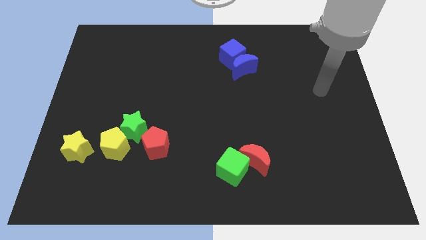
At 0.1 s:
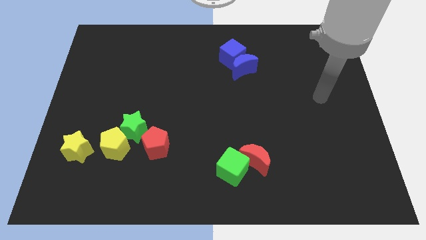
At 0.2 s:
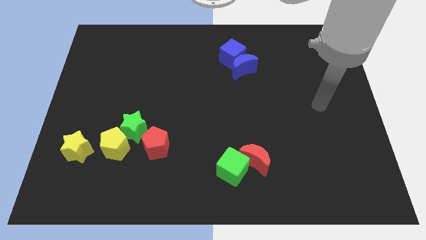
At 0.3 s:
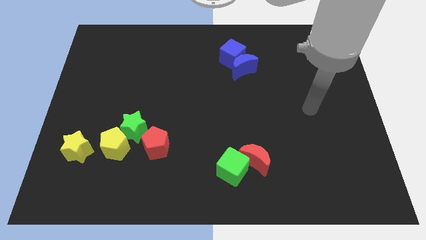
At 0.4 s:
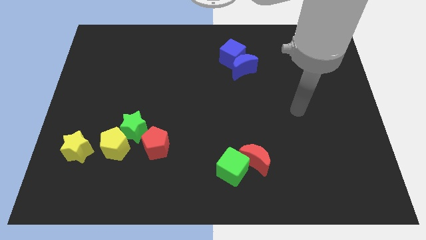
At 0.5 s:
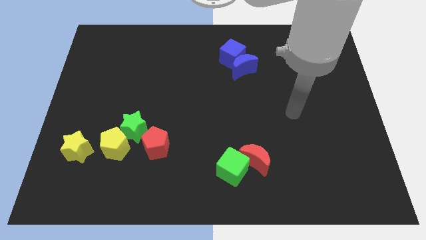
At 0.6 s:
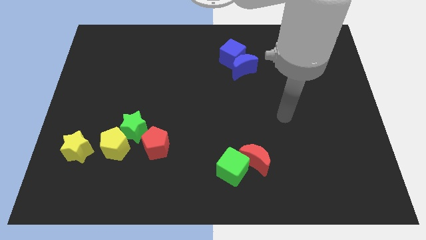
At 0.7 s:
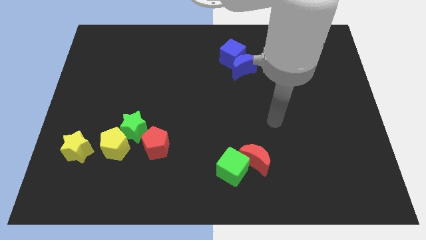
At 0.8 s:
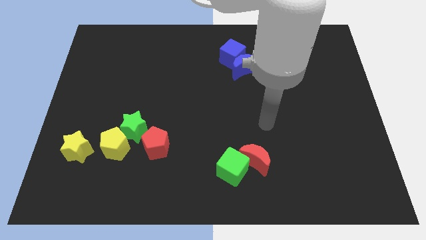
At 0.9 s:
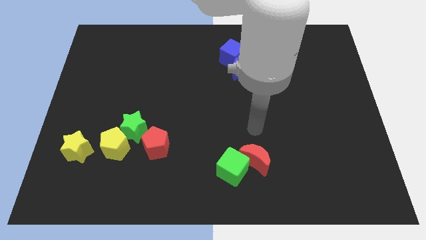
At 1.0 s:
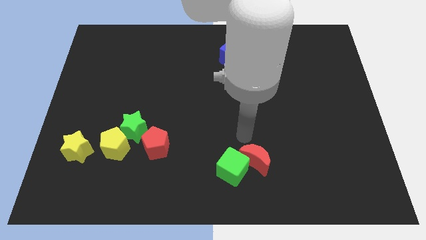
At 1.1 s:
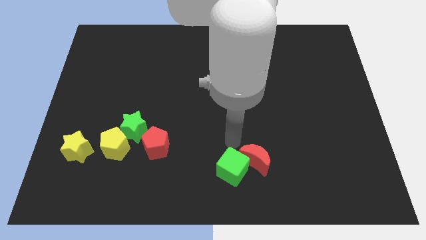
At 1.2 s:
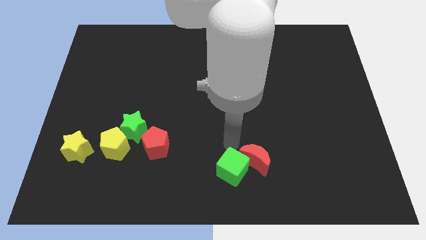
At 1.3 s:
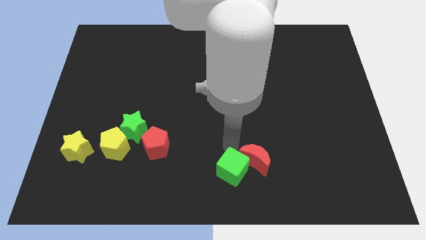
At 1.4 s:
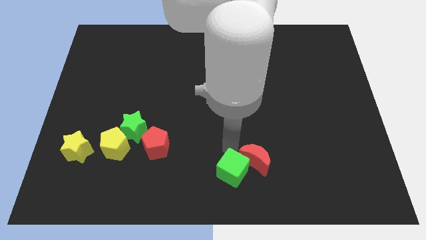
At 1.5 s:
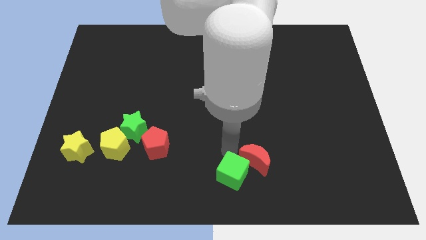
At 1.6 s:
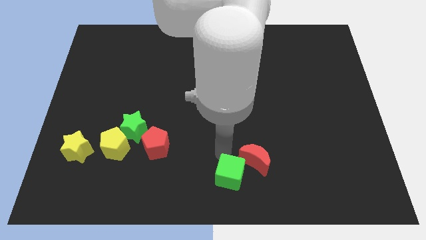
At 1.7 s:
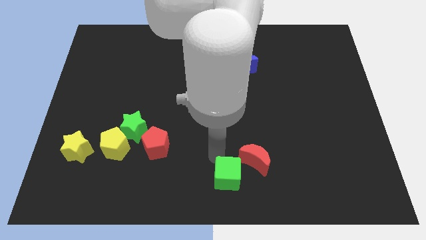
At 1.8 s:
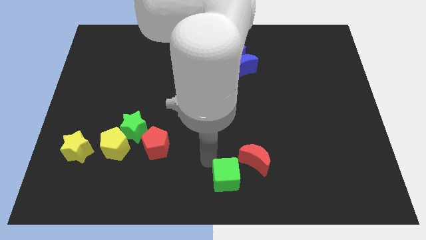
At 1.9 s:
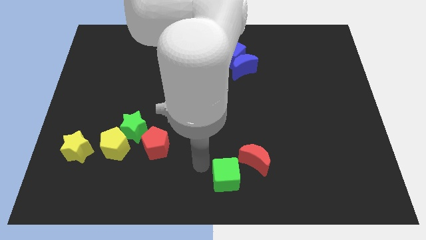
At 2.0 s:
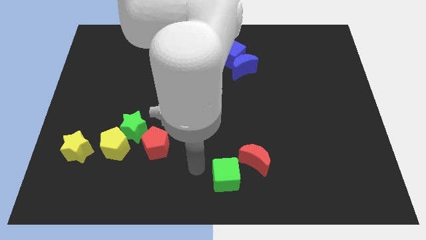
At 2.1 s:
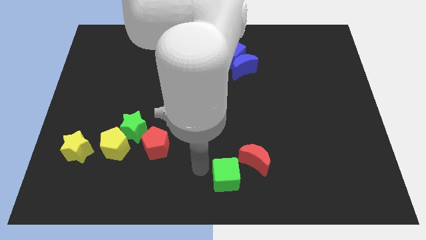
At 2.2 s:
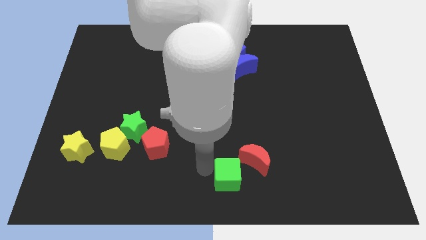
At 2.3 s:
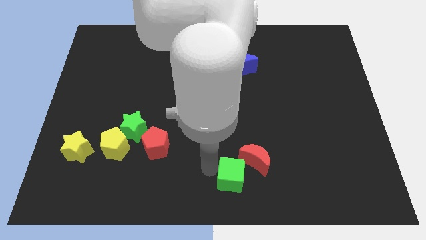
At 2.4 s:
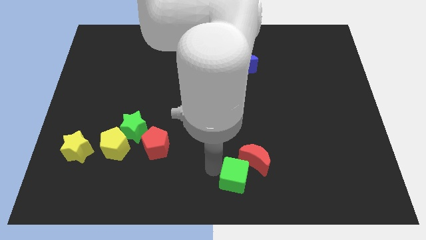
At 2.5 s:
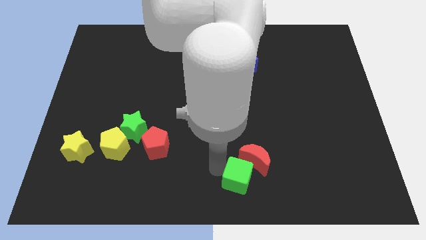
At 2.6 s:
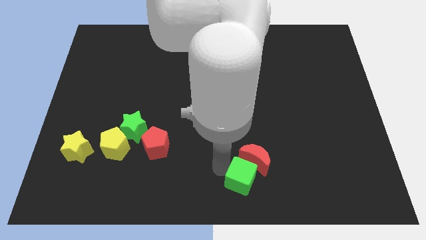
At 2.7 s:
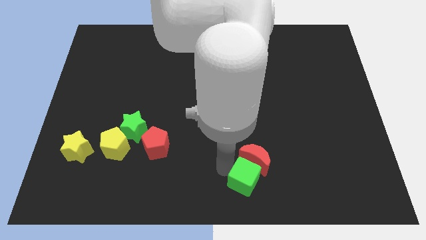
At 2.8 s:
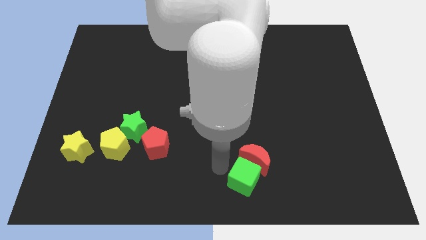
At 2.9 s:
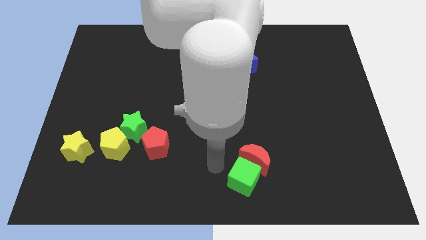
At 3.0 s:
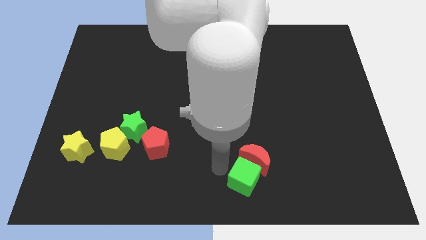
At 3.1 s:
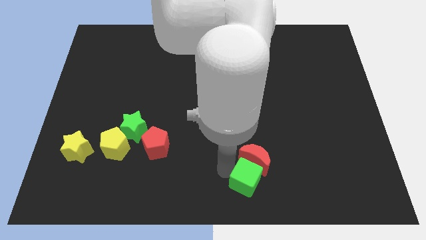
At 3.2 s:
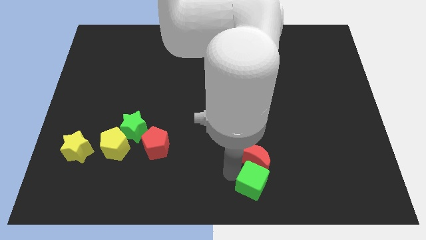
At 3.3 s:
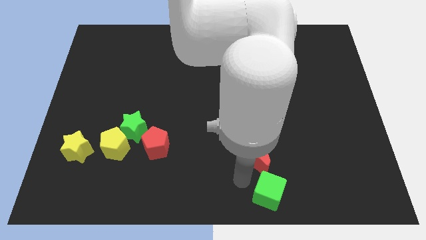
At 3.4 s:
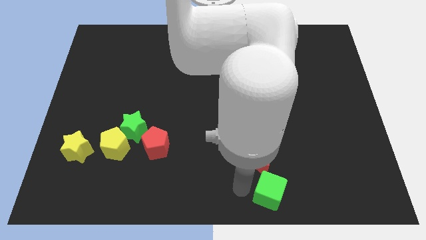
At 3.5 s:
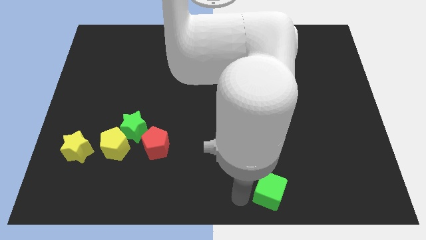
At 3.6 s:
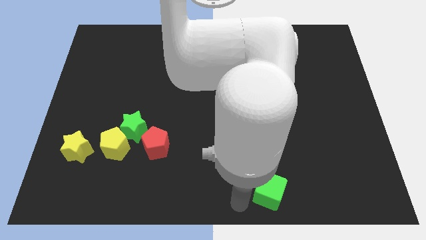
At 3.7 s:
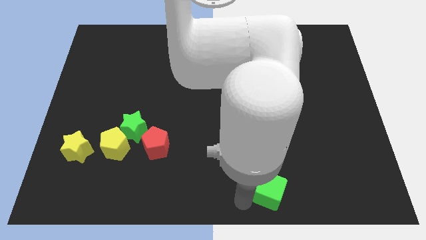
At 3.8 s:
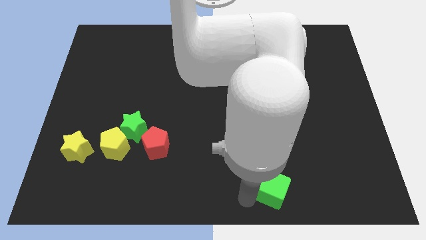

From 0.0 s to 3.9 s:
slightly move the green cube to the right

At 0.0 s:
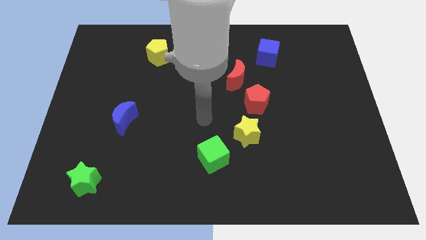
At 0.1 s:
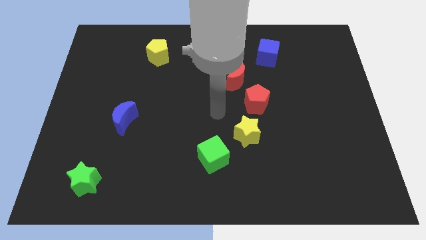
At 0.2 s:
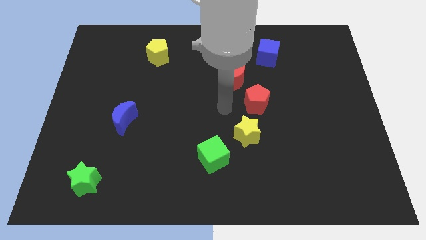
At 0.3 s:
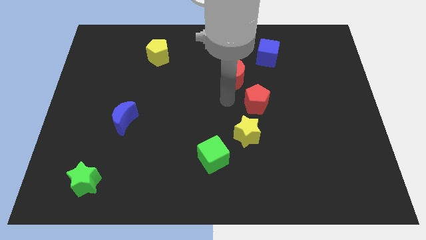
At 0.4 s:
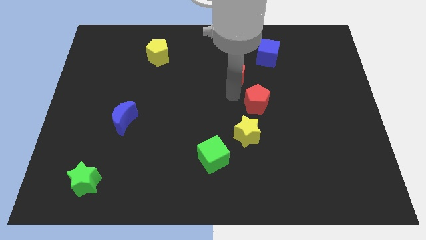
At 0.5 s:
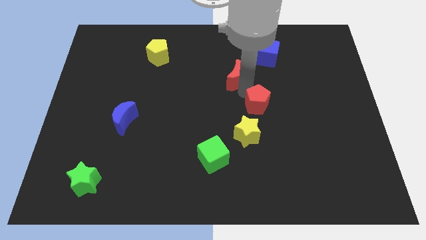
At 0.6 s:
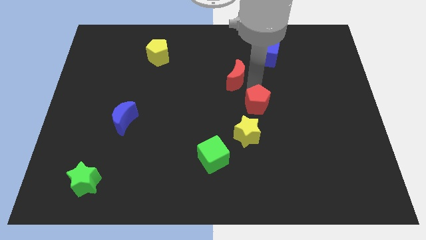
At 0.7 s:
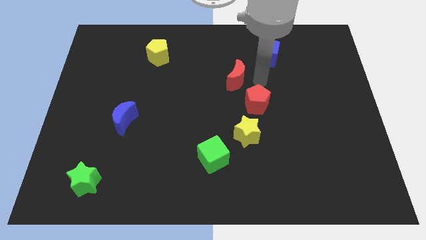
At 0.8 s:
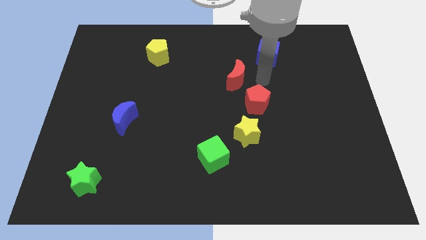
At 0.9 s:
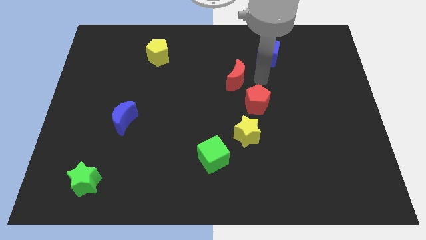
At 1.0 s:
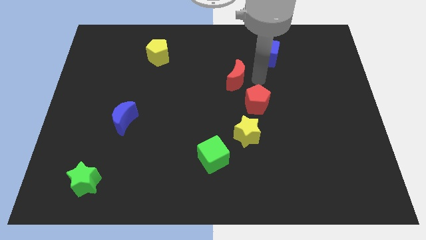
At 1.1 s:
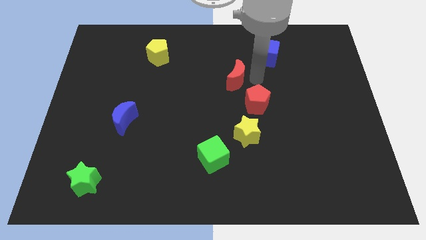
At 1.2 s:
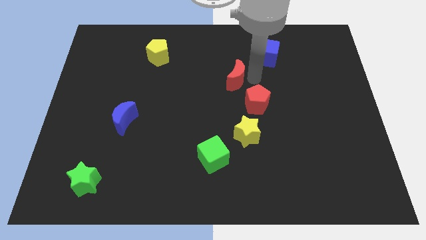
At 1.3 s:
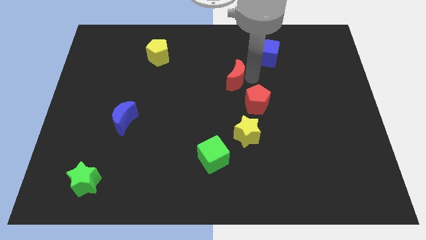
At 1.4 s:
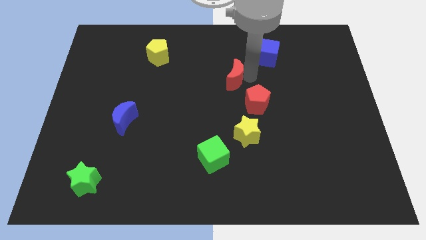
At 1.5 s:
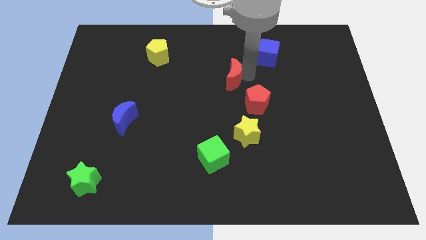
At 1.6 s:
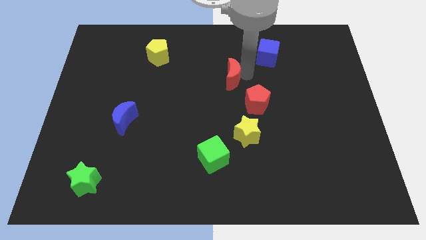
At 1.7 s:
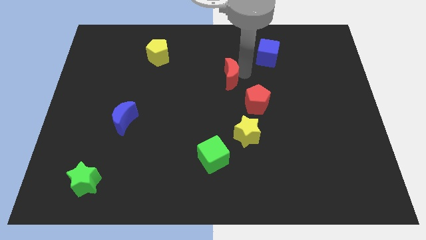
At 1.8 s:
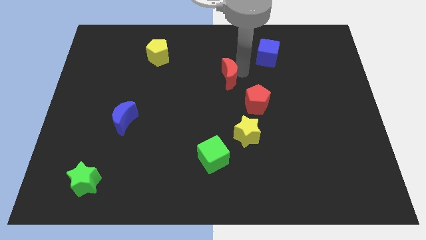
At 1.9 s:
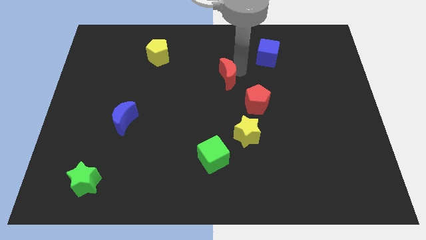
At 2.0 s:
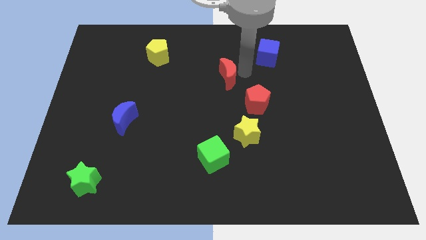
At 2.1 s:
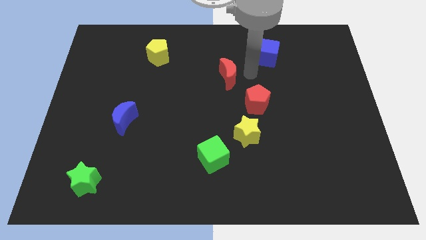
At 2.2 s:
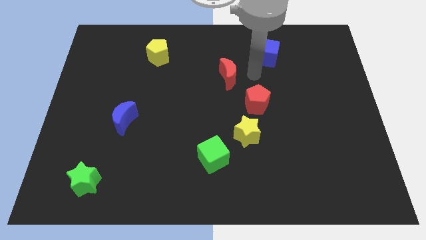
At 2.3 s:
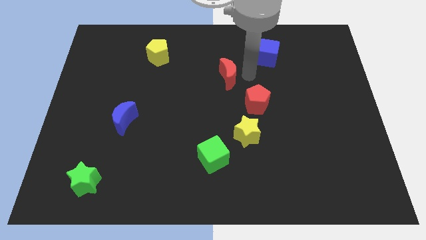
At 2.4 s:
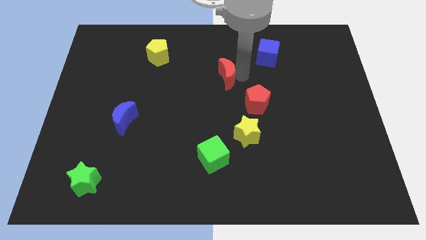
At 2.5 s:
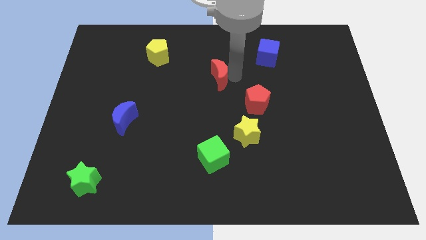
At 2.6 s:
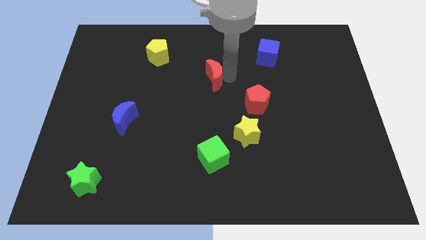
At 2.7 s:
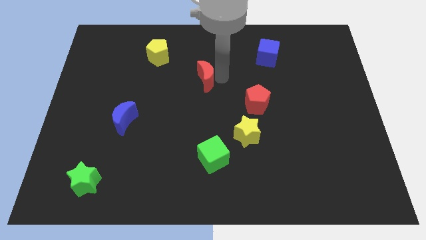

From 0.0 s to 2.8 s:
slide the red moon left somewhat

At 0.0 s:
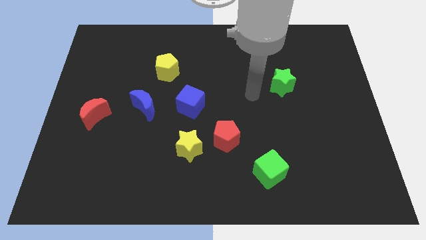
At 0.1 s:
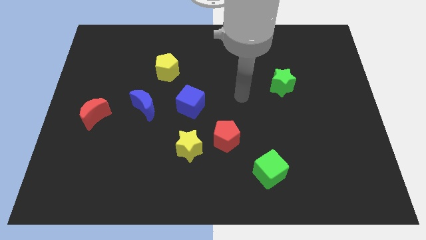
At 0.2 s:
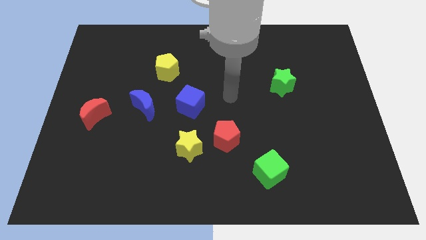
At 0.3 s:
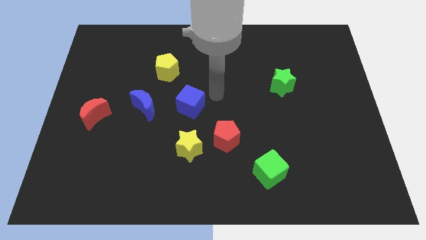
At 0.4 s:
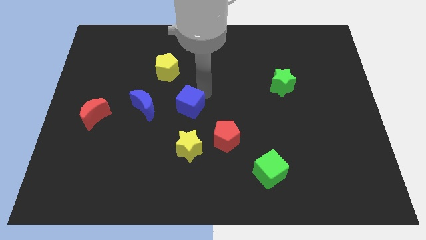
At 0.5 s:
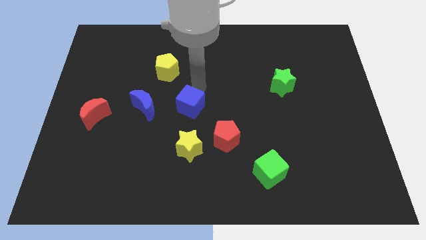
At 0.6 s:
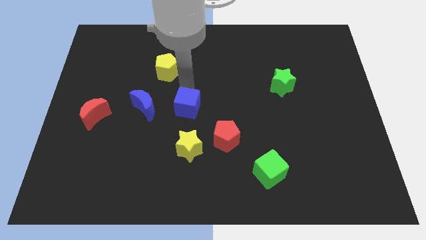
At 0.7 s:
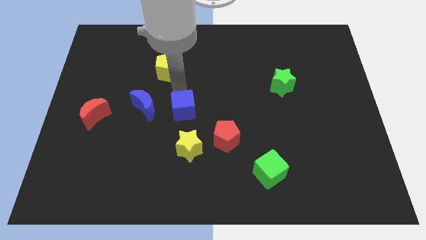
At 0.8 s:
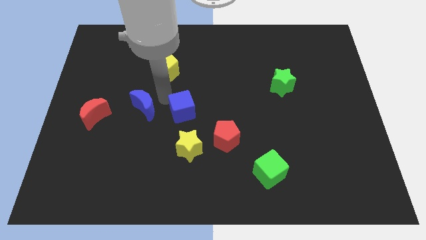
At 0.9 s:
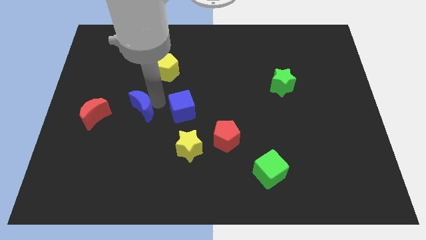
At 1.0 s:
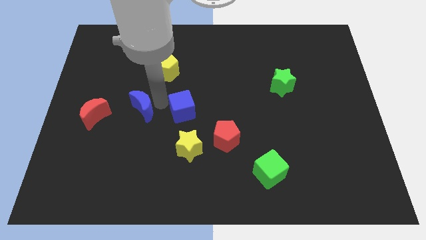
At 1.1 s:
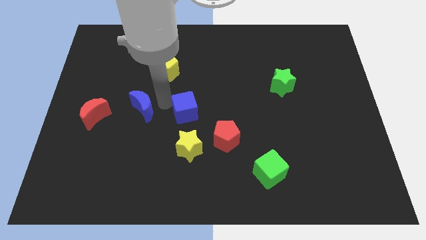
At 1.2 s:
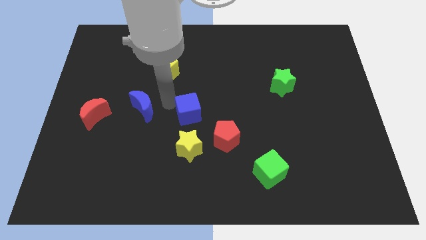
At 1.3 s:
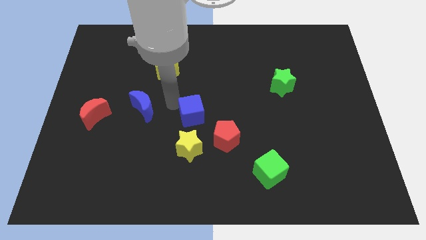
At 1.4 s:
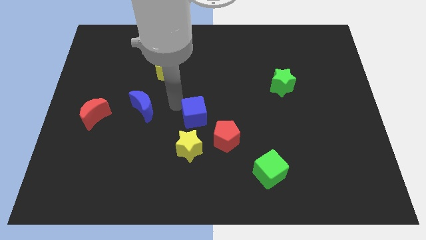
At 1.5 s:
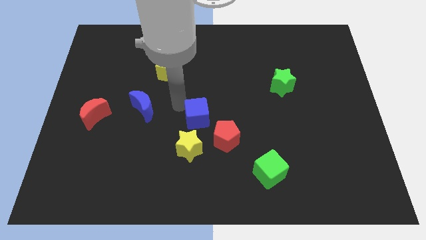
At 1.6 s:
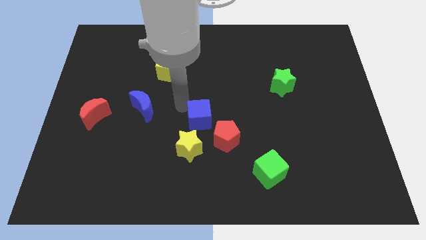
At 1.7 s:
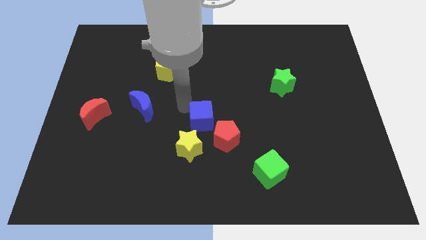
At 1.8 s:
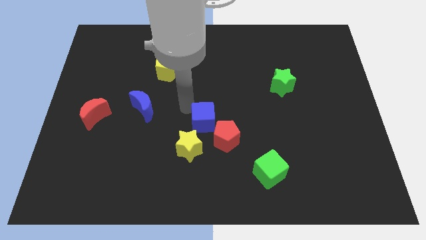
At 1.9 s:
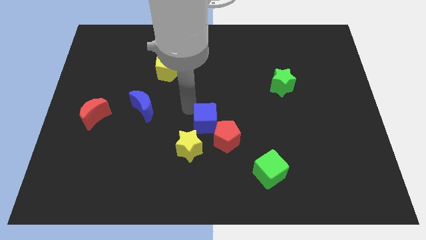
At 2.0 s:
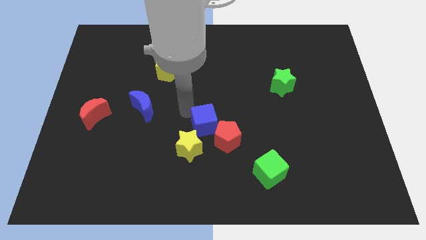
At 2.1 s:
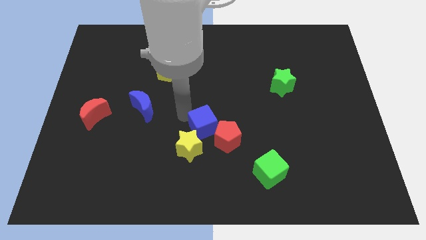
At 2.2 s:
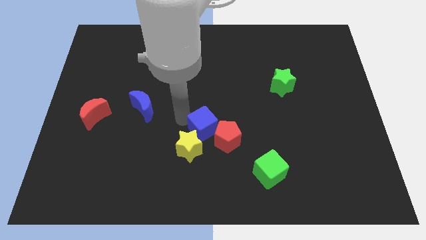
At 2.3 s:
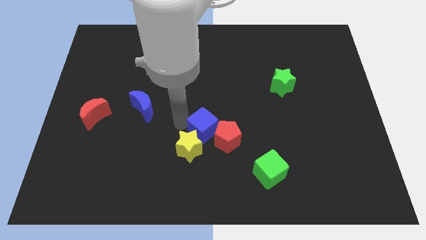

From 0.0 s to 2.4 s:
move the blue cube somewhat down and then to the right
